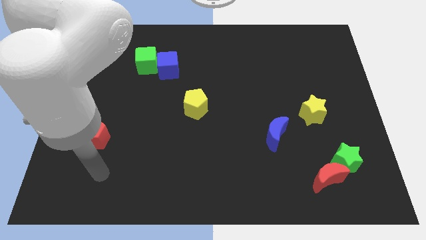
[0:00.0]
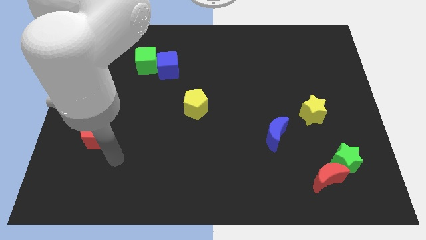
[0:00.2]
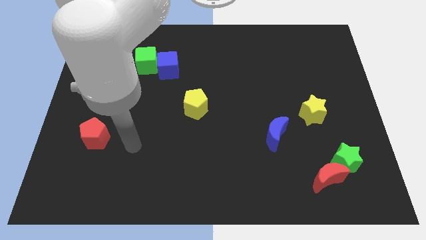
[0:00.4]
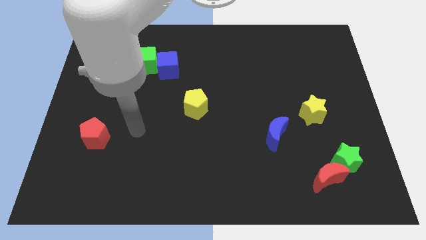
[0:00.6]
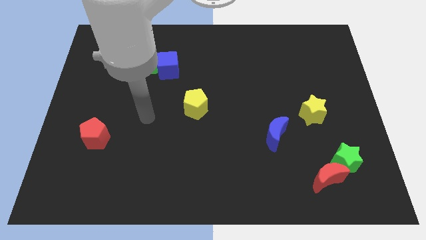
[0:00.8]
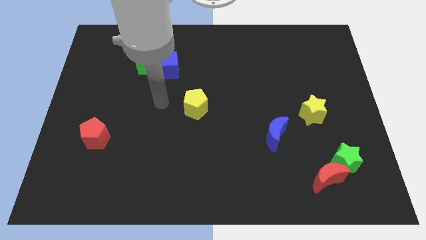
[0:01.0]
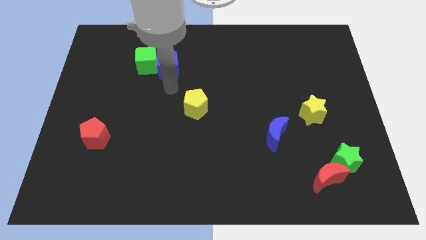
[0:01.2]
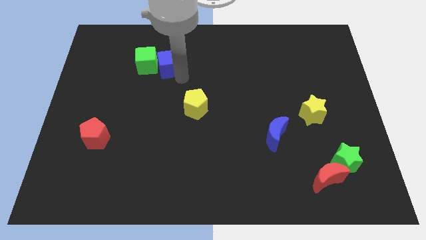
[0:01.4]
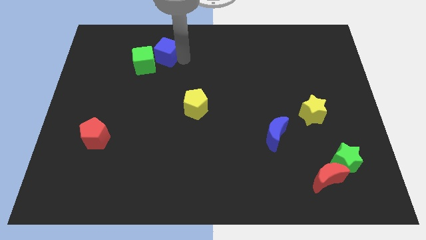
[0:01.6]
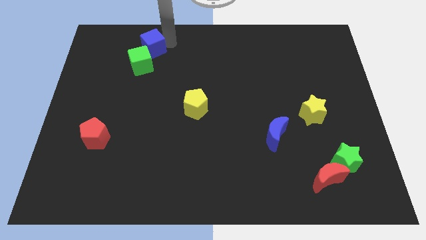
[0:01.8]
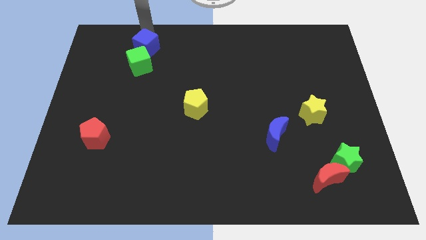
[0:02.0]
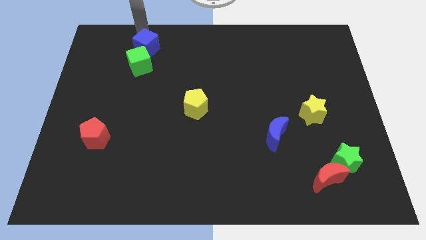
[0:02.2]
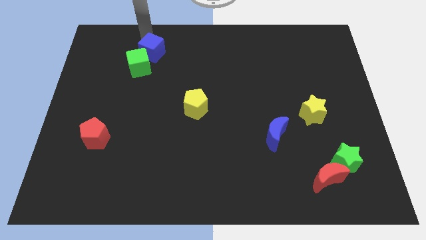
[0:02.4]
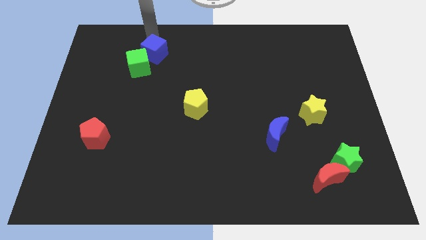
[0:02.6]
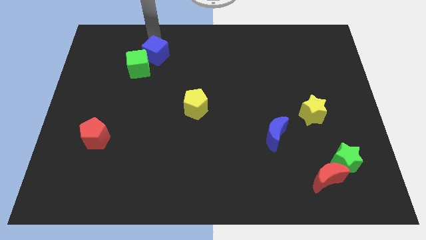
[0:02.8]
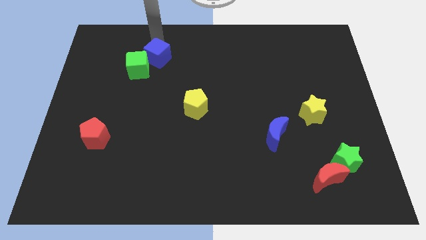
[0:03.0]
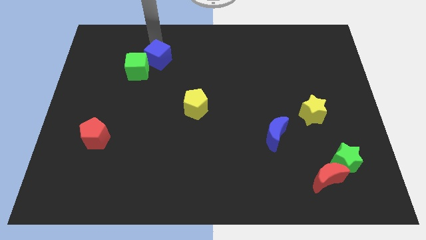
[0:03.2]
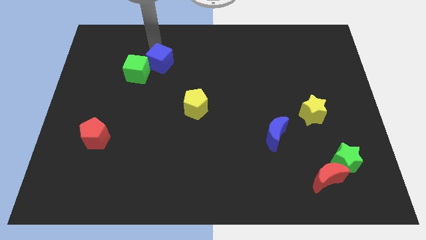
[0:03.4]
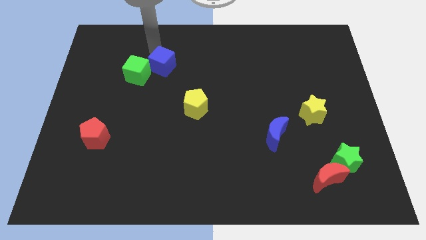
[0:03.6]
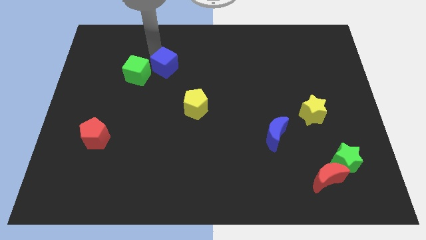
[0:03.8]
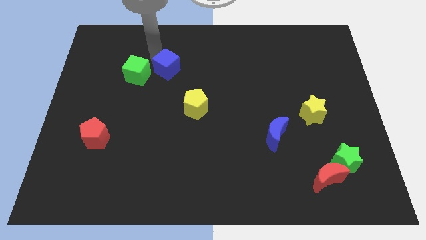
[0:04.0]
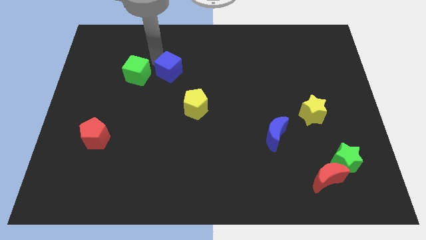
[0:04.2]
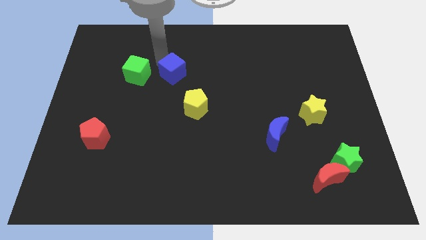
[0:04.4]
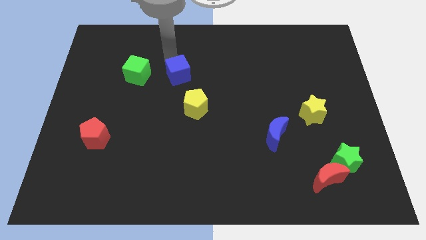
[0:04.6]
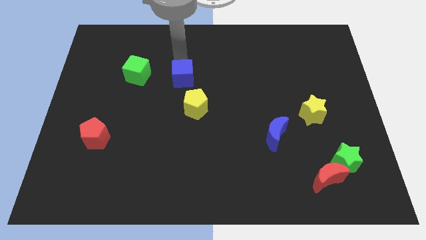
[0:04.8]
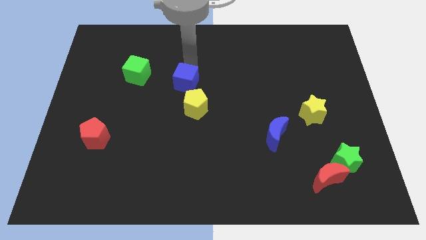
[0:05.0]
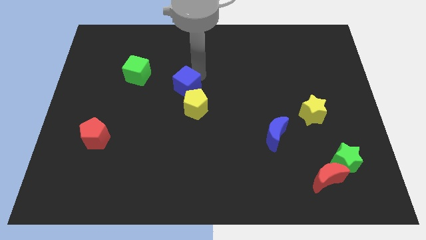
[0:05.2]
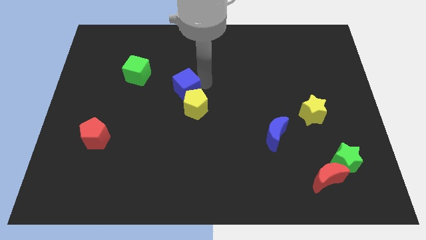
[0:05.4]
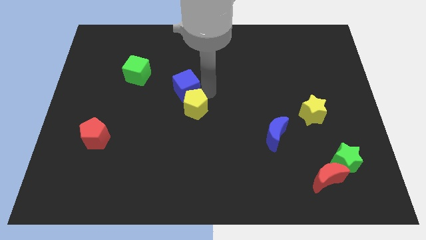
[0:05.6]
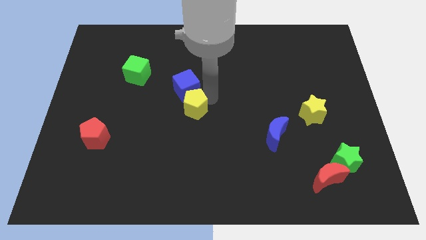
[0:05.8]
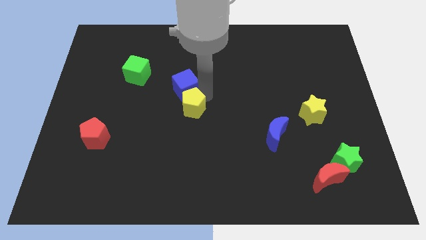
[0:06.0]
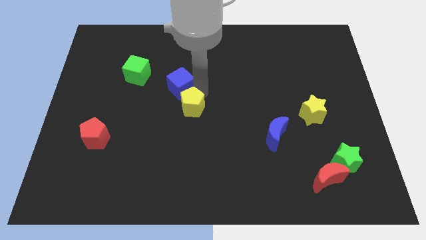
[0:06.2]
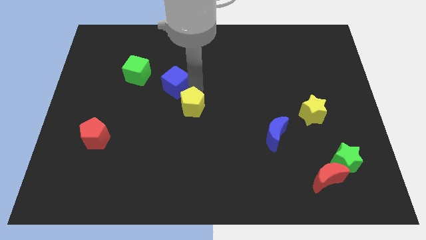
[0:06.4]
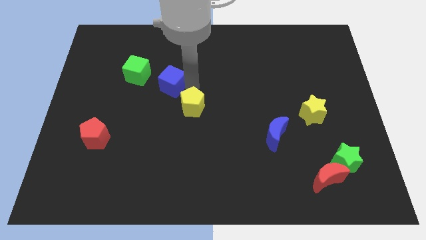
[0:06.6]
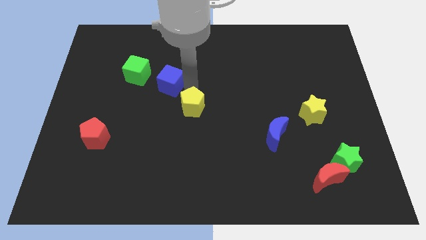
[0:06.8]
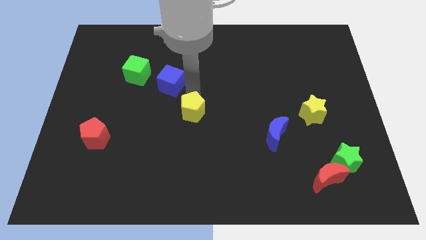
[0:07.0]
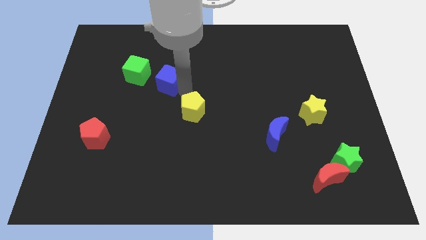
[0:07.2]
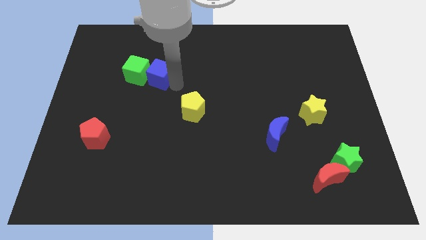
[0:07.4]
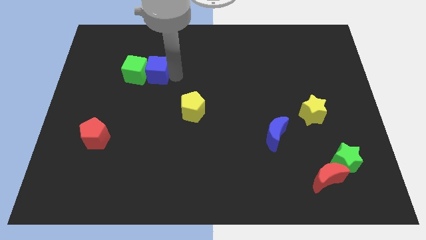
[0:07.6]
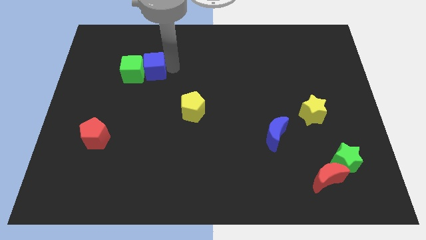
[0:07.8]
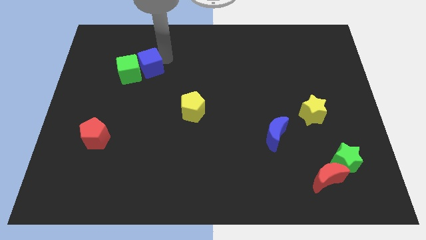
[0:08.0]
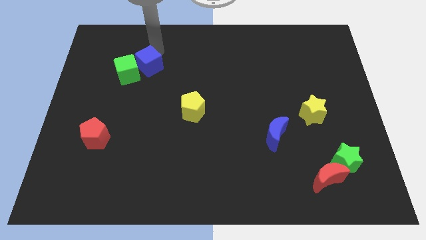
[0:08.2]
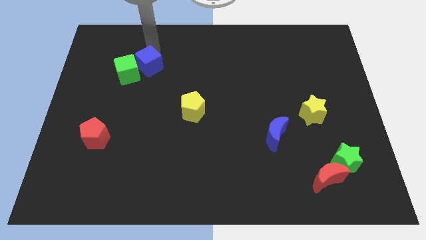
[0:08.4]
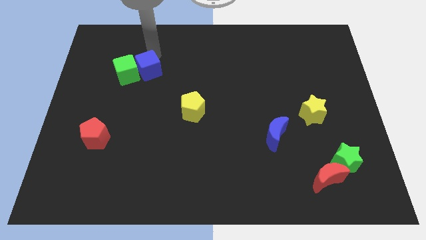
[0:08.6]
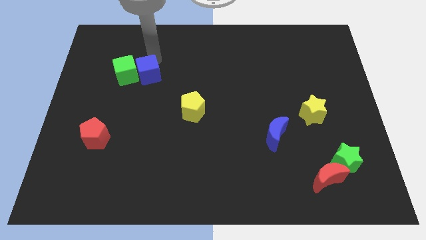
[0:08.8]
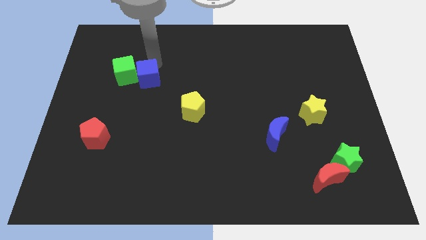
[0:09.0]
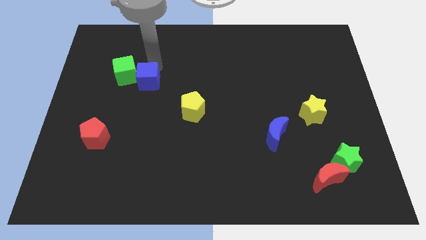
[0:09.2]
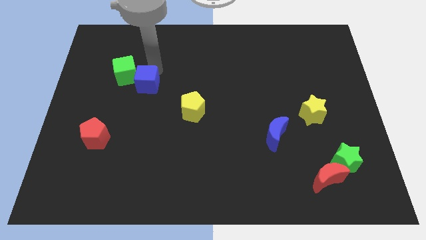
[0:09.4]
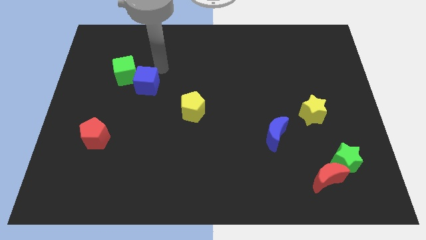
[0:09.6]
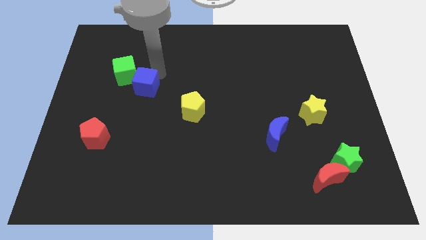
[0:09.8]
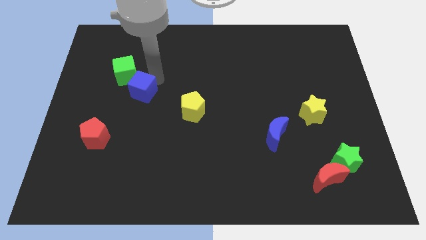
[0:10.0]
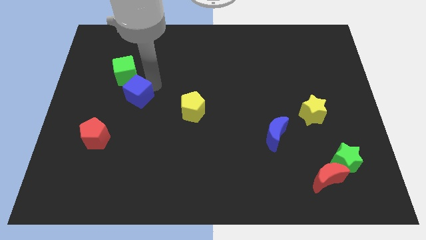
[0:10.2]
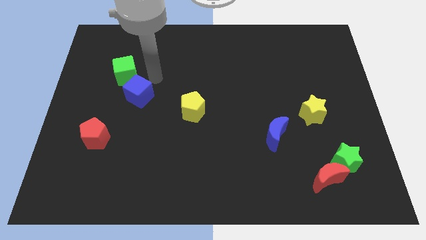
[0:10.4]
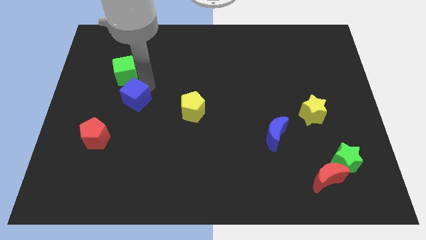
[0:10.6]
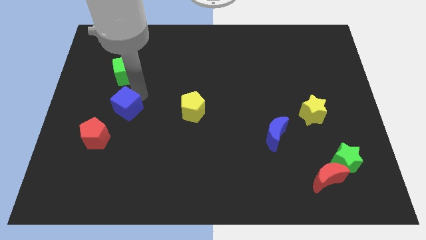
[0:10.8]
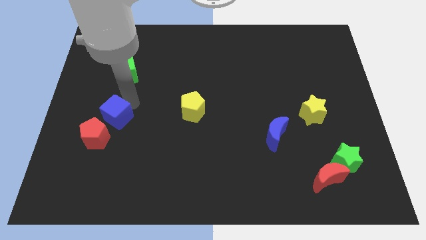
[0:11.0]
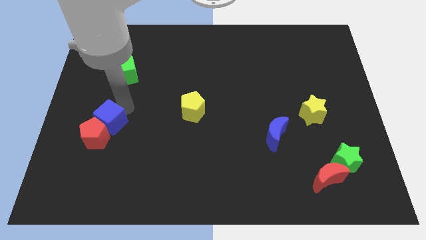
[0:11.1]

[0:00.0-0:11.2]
move the blue cube next to the red pentagon

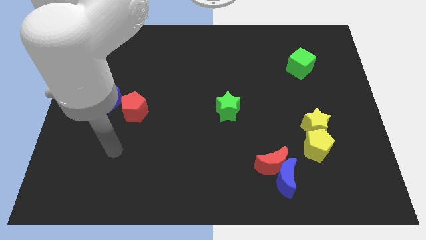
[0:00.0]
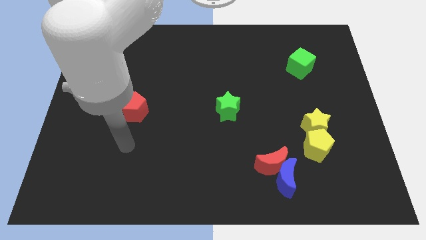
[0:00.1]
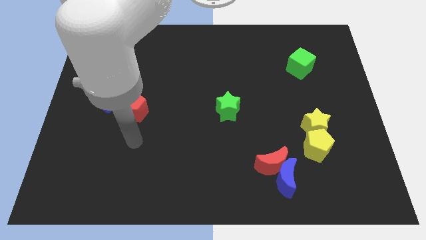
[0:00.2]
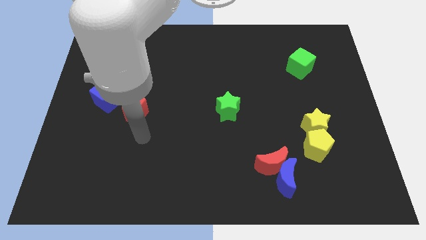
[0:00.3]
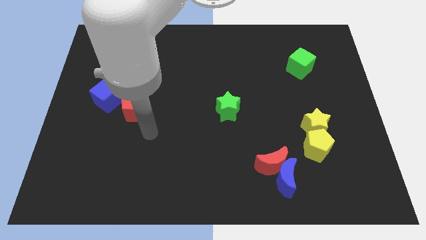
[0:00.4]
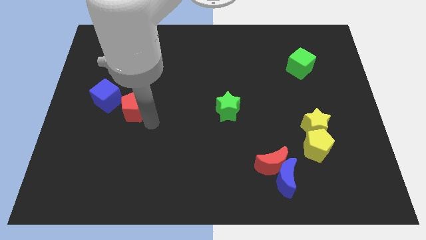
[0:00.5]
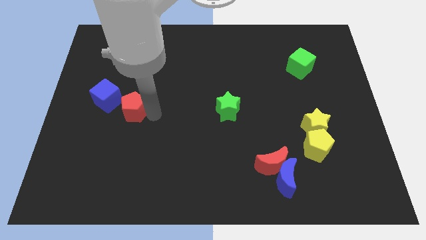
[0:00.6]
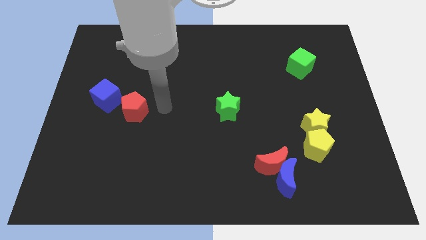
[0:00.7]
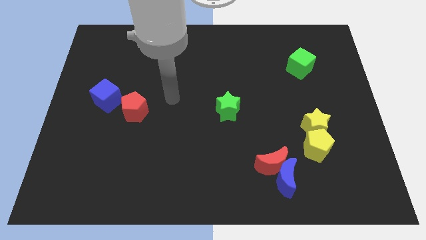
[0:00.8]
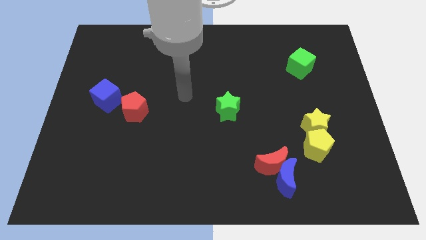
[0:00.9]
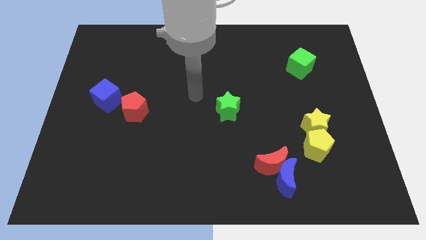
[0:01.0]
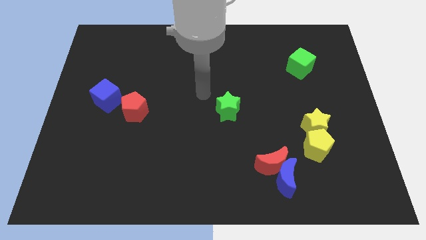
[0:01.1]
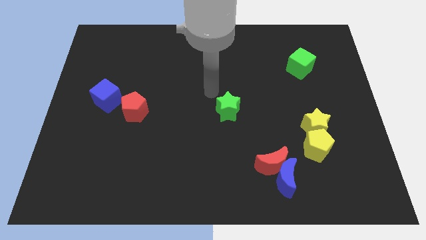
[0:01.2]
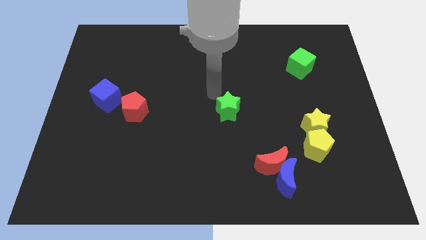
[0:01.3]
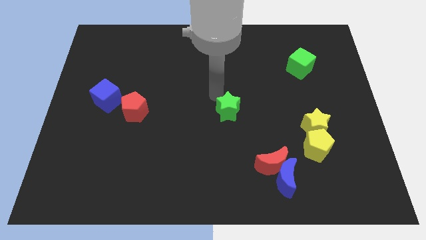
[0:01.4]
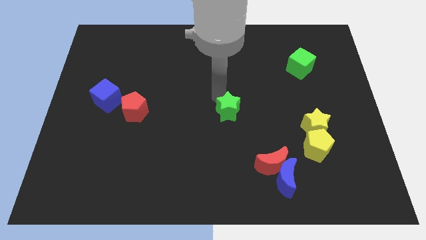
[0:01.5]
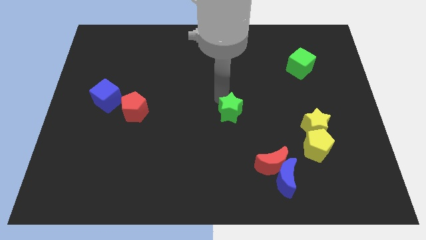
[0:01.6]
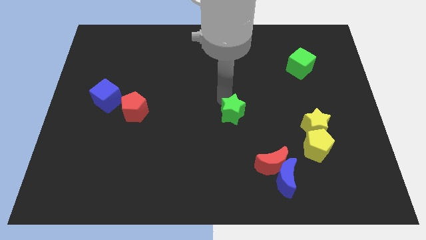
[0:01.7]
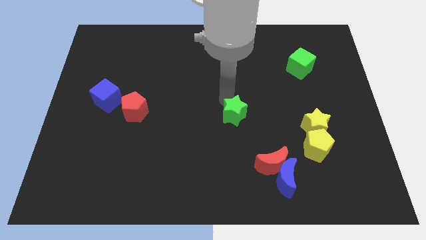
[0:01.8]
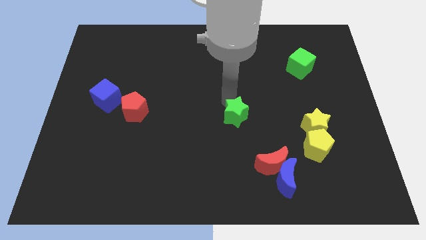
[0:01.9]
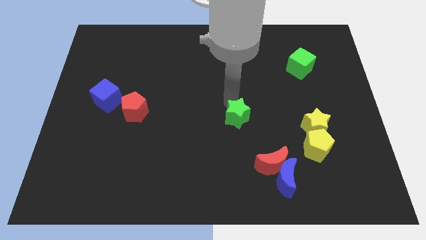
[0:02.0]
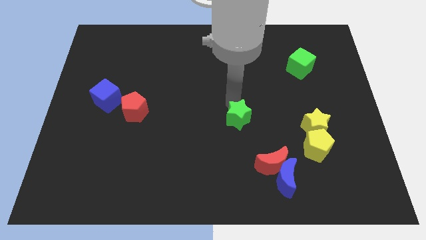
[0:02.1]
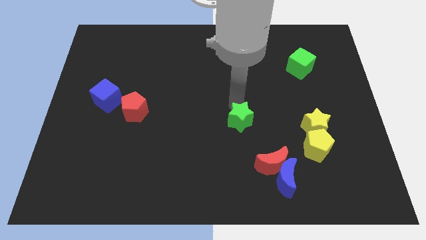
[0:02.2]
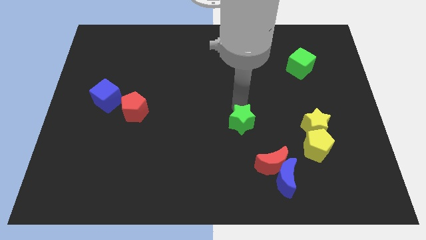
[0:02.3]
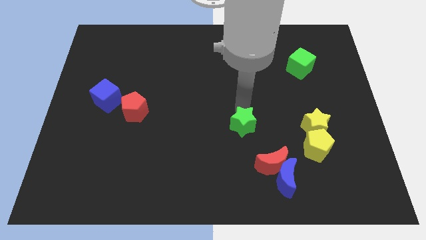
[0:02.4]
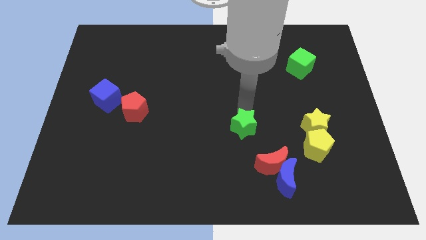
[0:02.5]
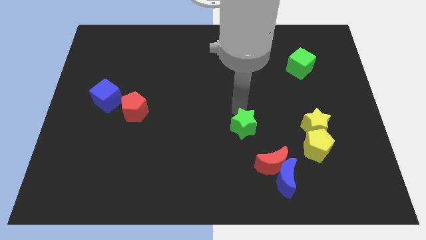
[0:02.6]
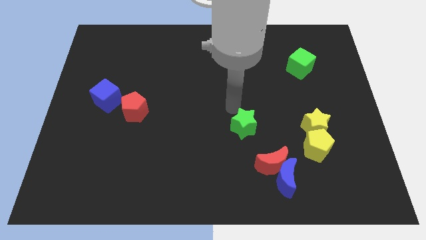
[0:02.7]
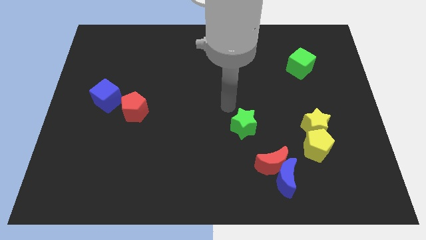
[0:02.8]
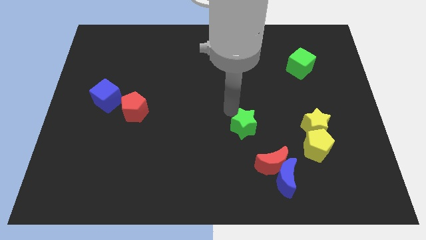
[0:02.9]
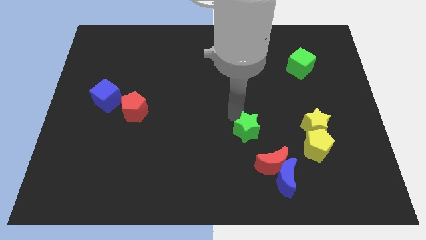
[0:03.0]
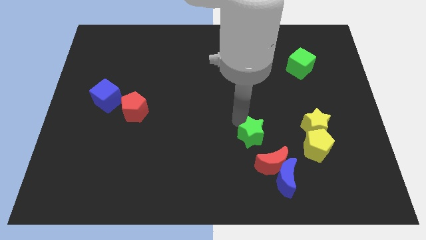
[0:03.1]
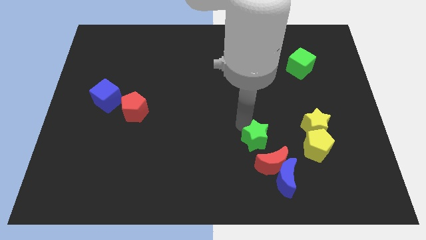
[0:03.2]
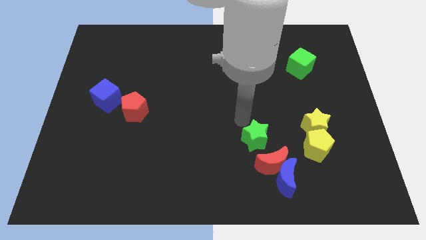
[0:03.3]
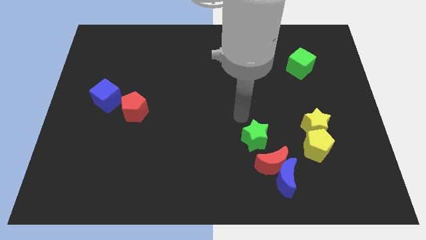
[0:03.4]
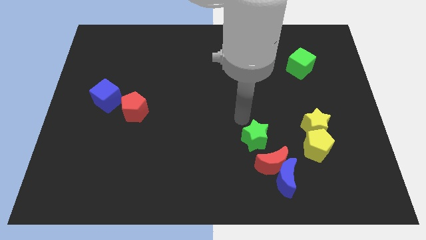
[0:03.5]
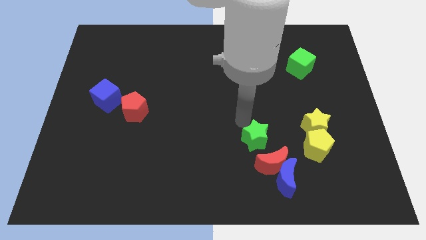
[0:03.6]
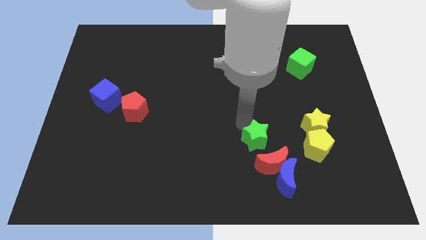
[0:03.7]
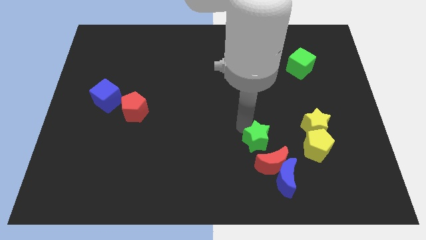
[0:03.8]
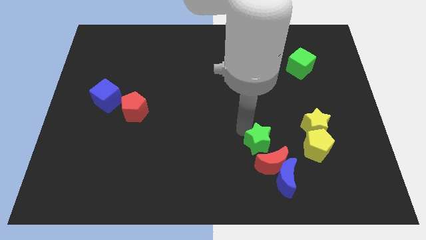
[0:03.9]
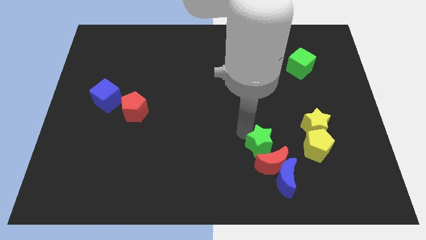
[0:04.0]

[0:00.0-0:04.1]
push the green star towards the red moon
